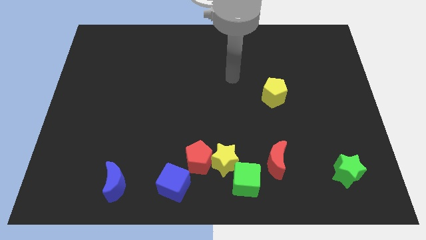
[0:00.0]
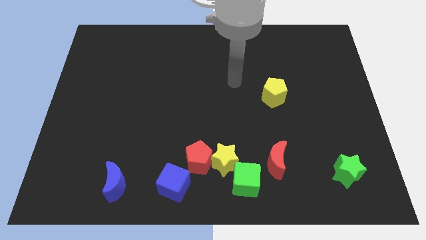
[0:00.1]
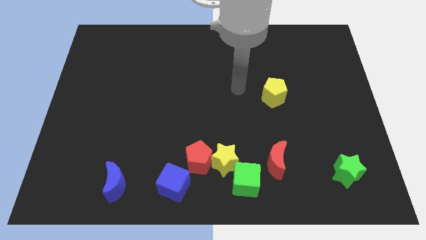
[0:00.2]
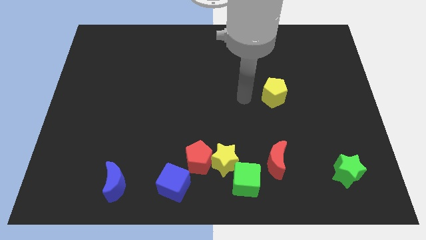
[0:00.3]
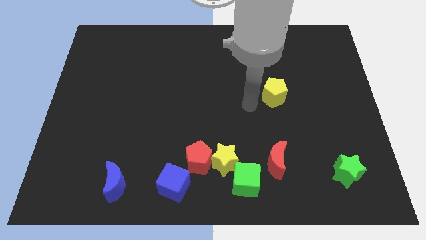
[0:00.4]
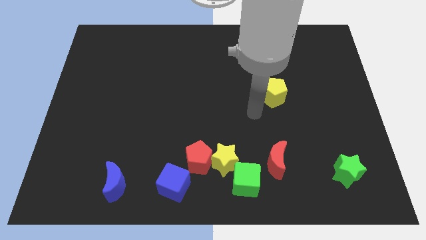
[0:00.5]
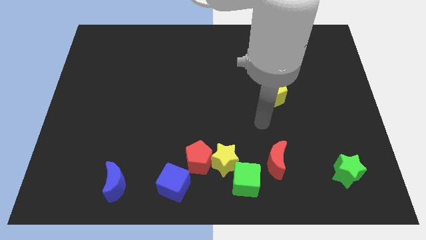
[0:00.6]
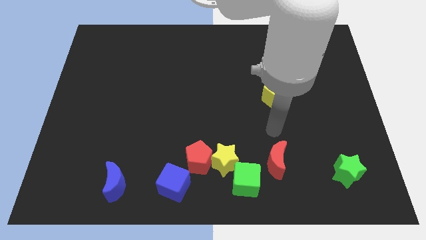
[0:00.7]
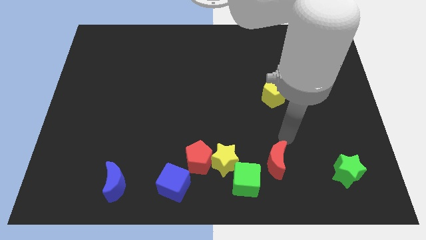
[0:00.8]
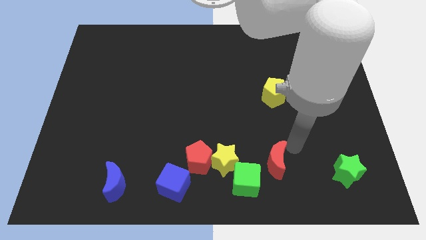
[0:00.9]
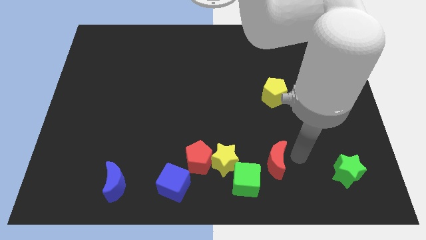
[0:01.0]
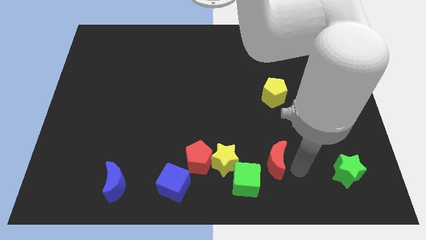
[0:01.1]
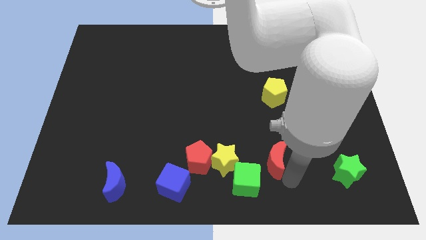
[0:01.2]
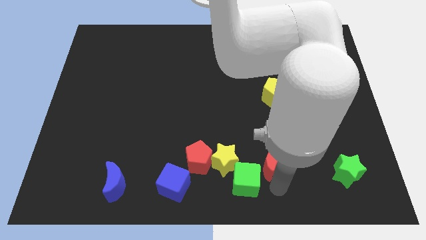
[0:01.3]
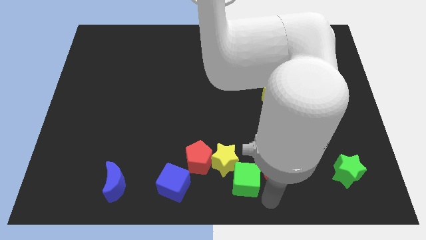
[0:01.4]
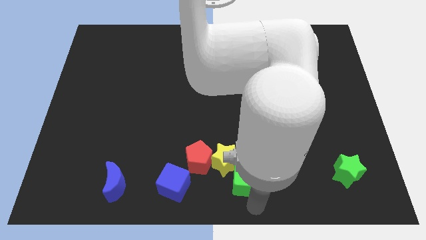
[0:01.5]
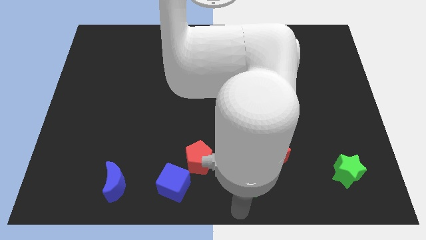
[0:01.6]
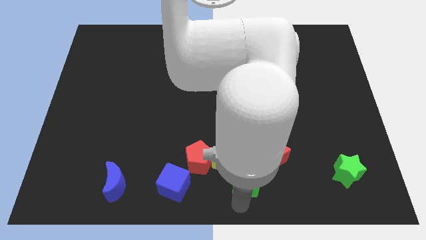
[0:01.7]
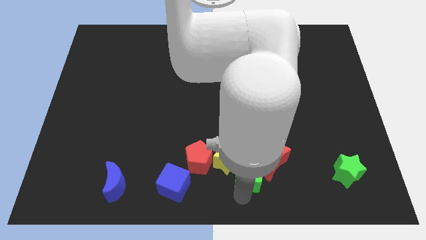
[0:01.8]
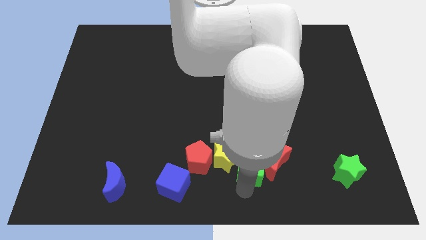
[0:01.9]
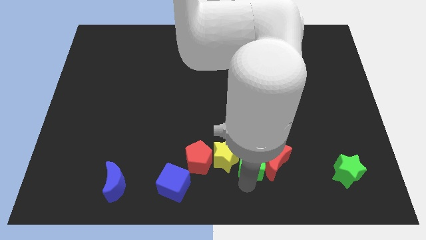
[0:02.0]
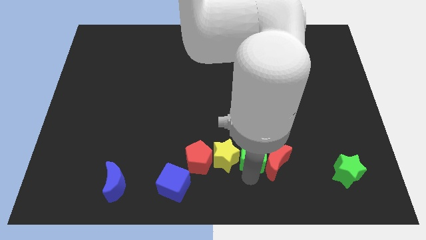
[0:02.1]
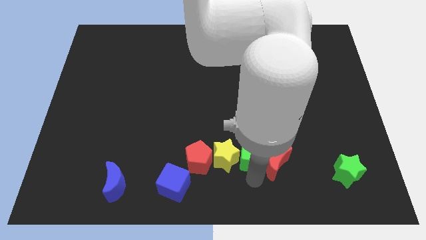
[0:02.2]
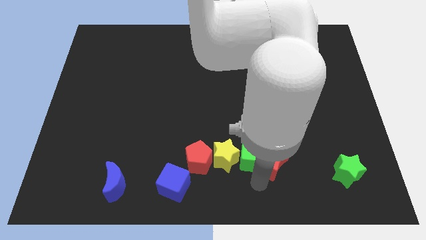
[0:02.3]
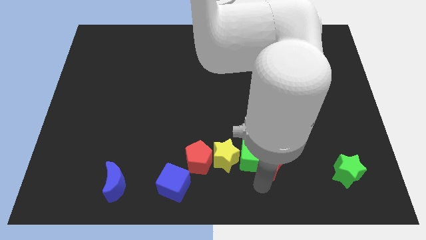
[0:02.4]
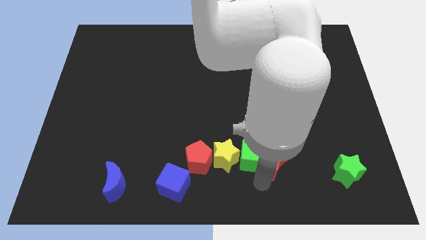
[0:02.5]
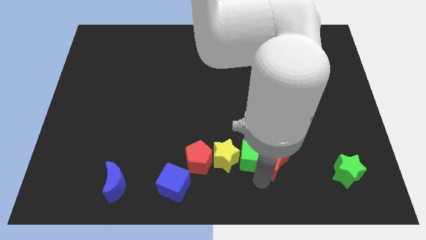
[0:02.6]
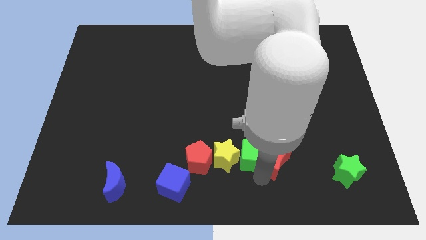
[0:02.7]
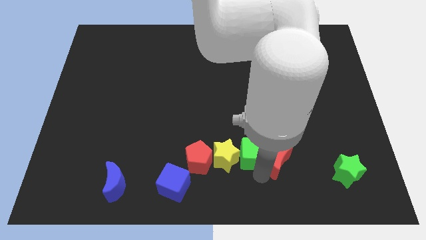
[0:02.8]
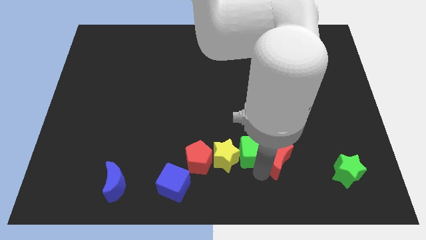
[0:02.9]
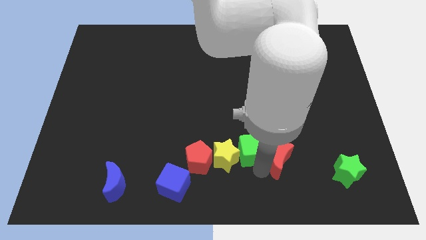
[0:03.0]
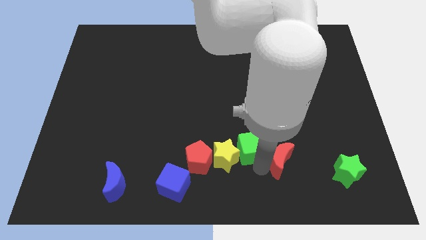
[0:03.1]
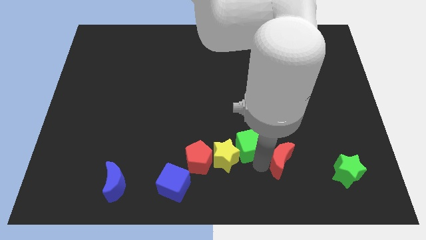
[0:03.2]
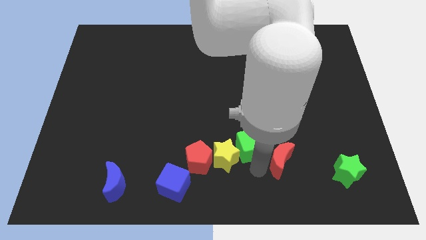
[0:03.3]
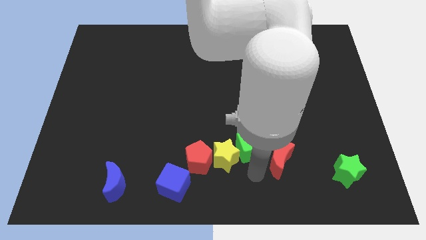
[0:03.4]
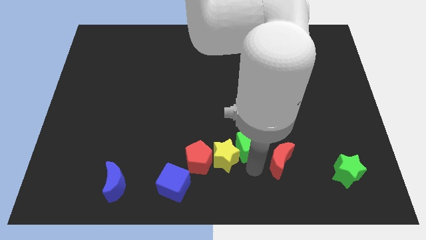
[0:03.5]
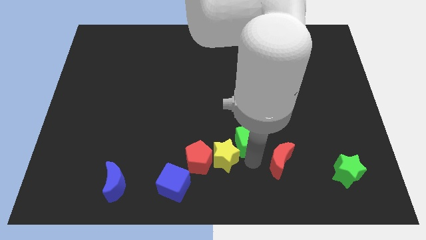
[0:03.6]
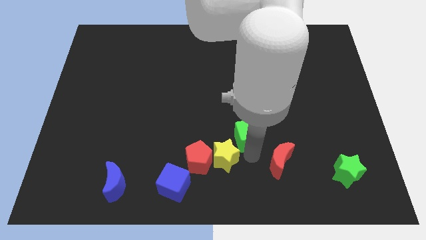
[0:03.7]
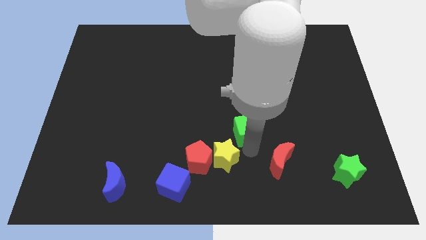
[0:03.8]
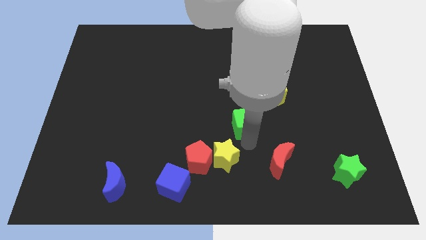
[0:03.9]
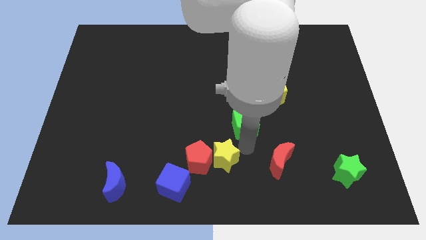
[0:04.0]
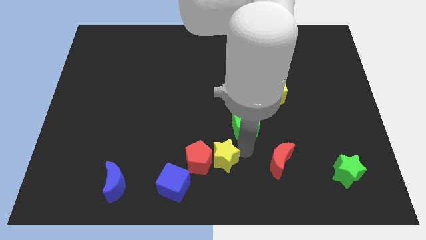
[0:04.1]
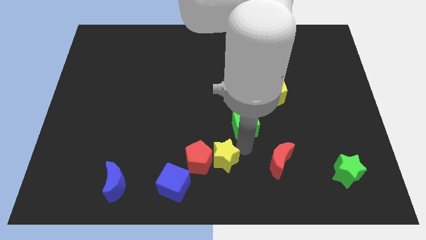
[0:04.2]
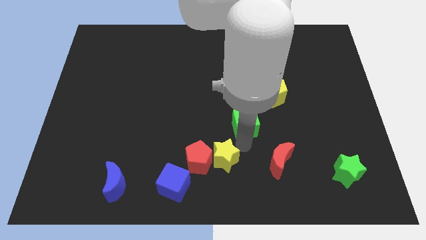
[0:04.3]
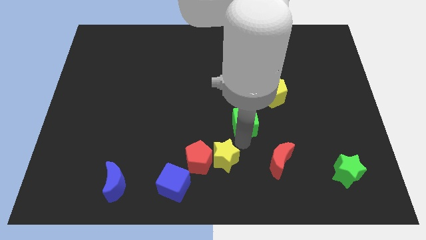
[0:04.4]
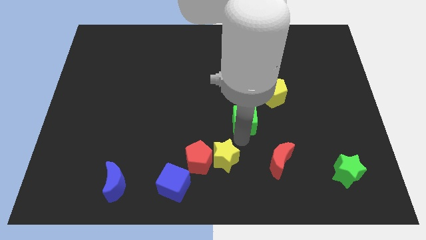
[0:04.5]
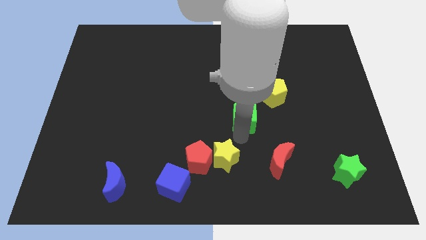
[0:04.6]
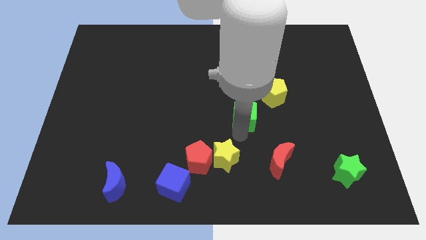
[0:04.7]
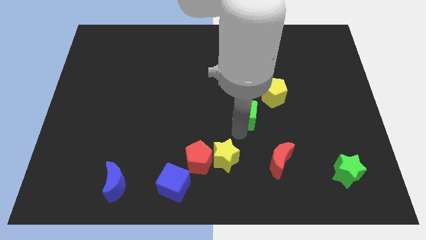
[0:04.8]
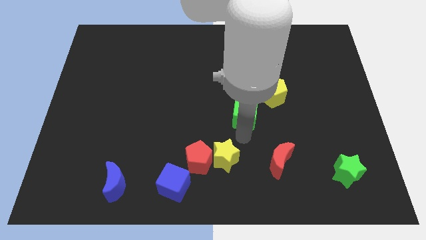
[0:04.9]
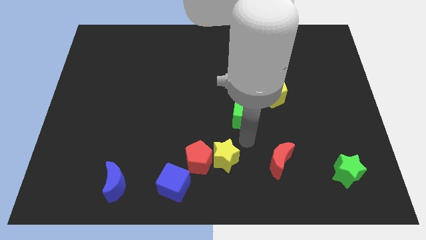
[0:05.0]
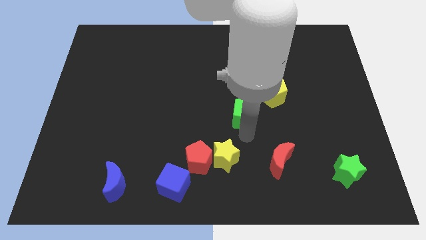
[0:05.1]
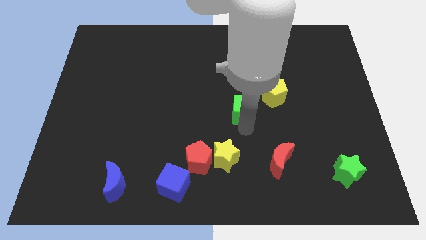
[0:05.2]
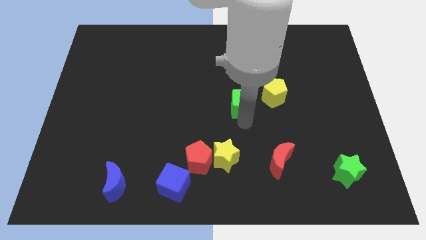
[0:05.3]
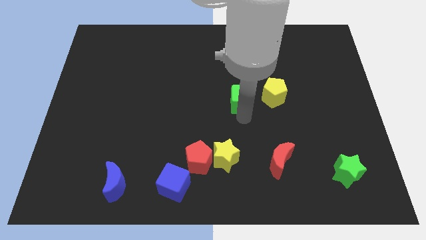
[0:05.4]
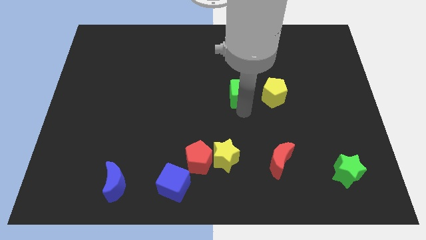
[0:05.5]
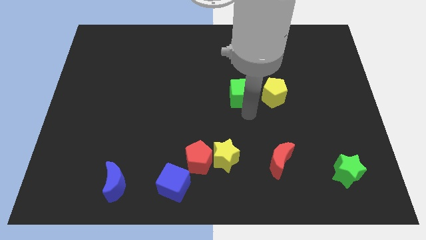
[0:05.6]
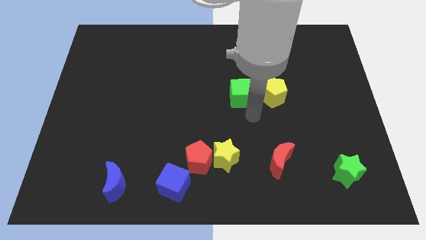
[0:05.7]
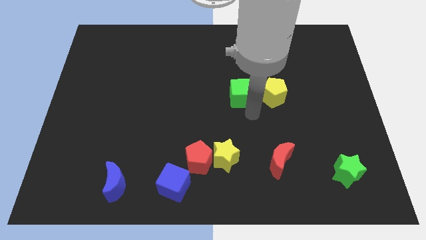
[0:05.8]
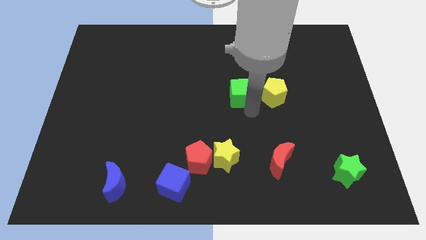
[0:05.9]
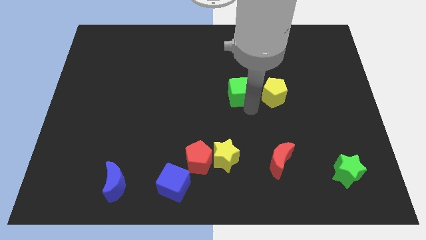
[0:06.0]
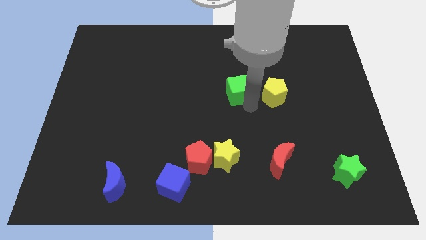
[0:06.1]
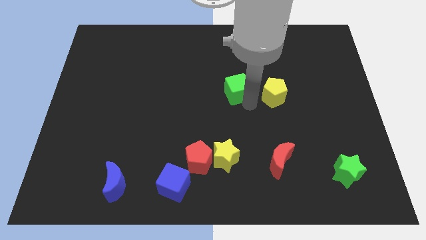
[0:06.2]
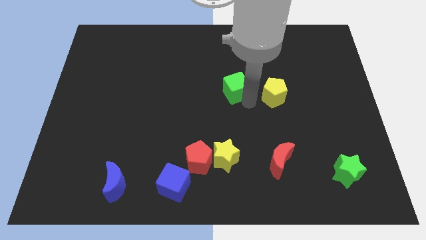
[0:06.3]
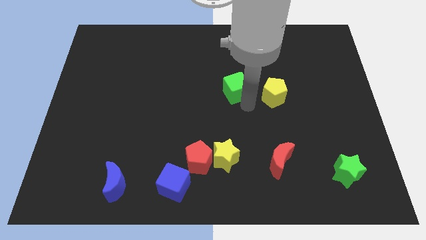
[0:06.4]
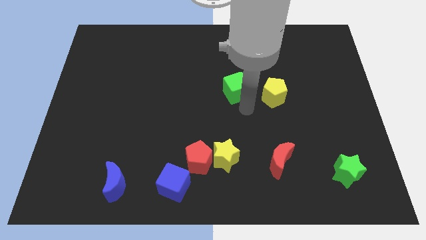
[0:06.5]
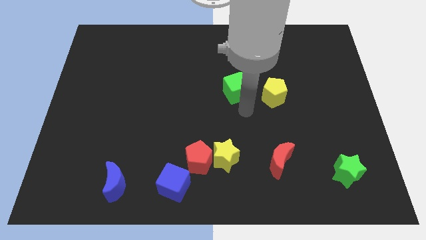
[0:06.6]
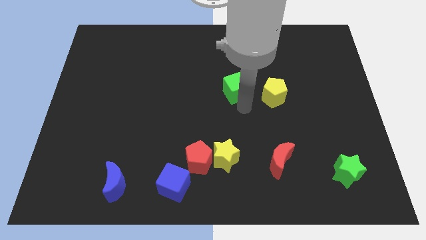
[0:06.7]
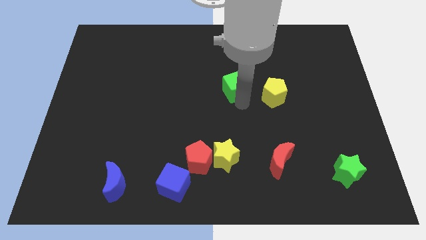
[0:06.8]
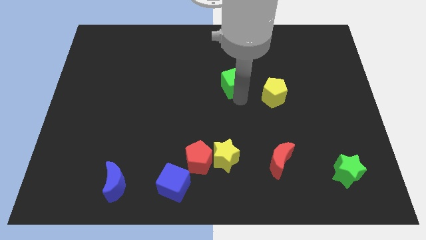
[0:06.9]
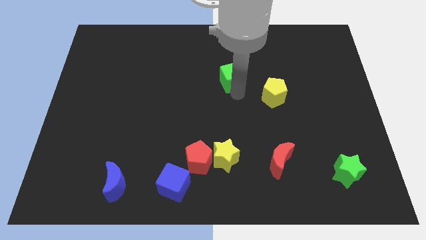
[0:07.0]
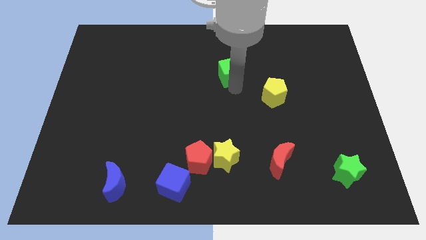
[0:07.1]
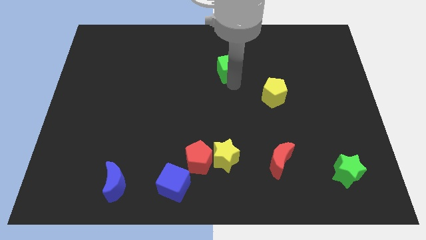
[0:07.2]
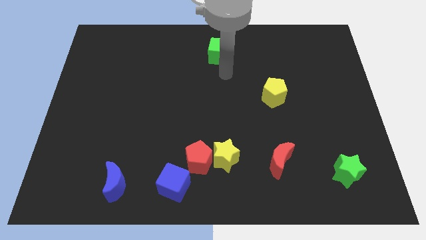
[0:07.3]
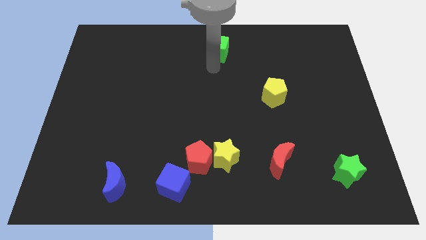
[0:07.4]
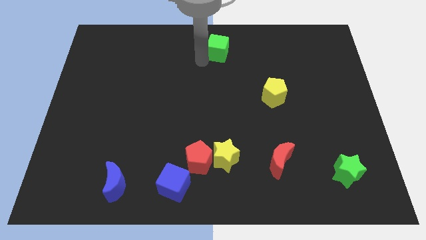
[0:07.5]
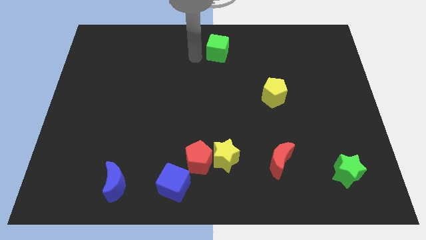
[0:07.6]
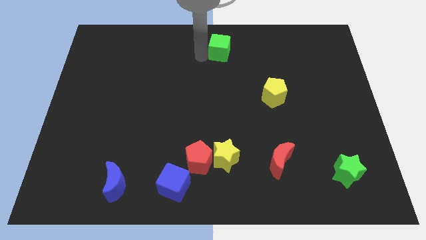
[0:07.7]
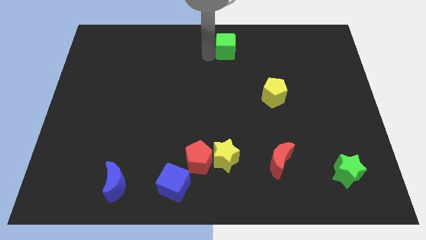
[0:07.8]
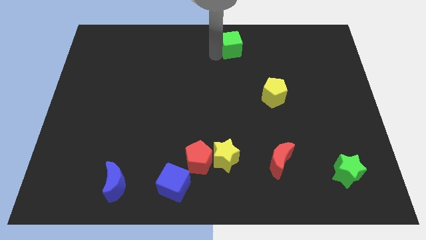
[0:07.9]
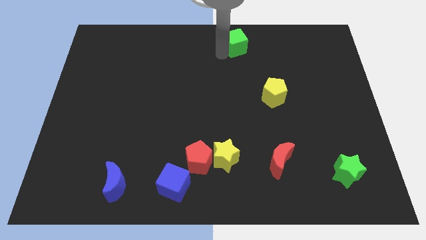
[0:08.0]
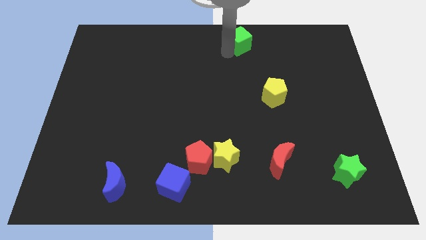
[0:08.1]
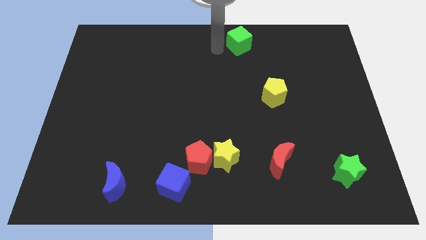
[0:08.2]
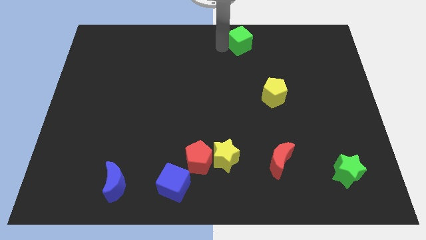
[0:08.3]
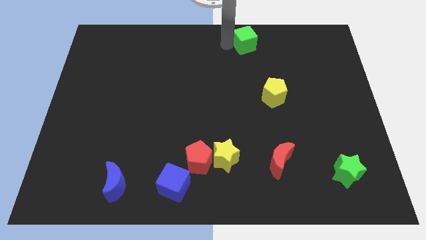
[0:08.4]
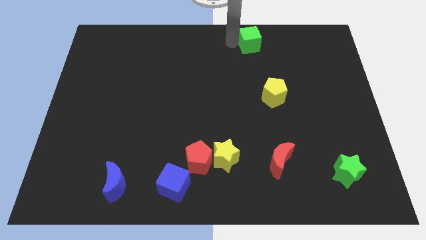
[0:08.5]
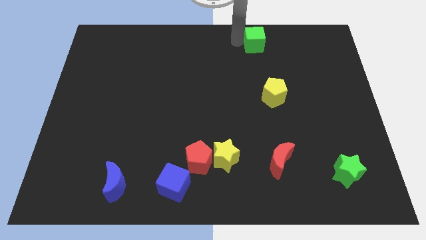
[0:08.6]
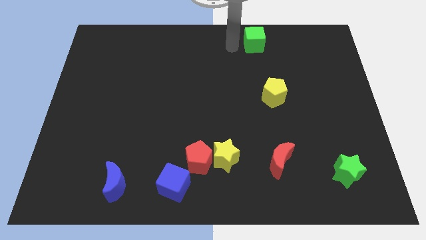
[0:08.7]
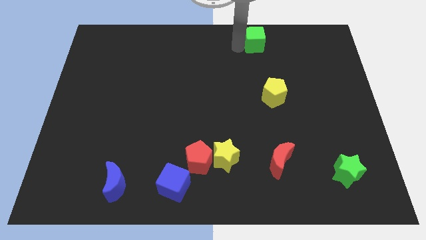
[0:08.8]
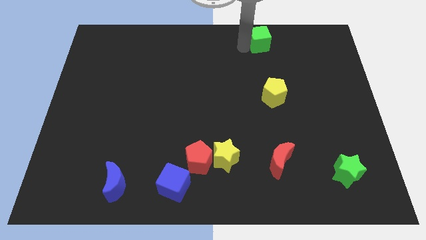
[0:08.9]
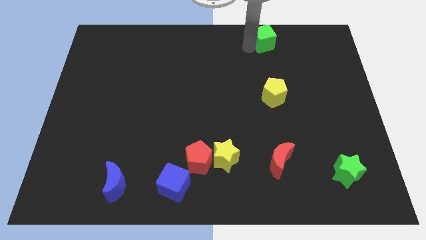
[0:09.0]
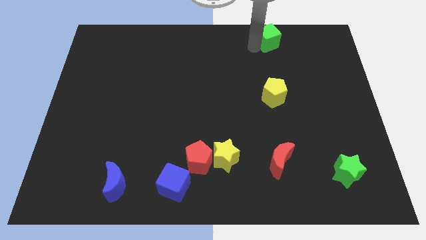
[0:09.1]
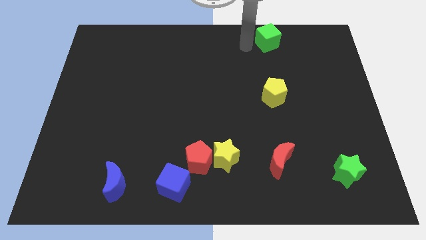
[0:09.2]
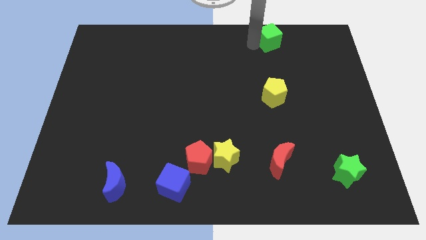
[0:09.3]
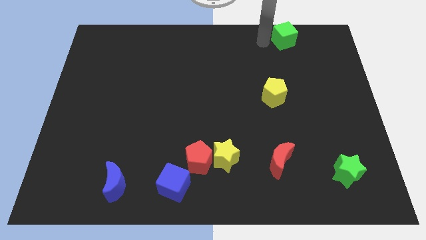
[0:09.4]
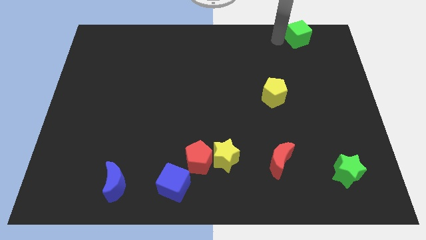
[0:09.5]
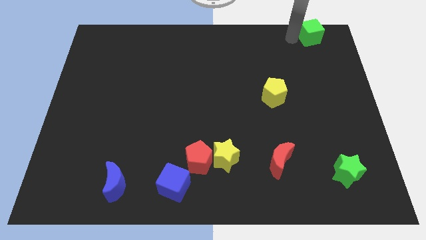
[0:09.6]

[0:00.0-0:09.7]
slide the green cube to the top right
